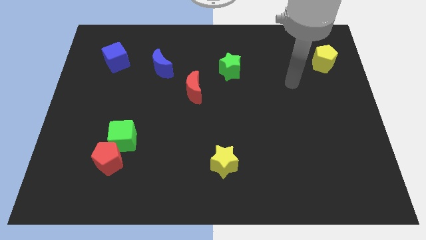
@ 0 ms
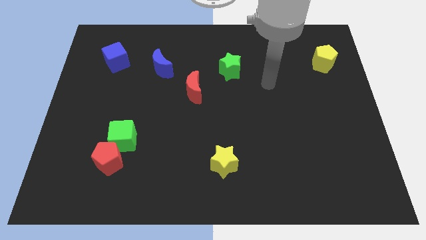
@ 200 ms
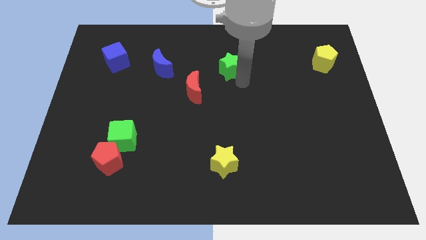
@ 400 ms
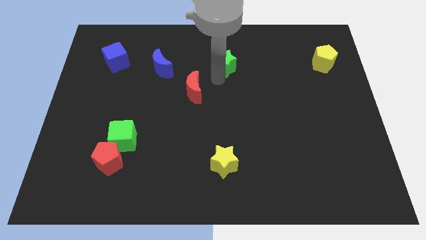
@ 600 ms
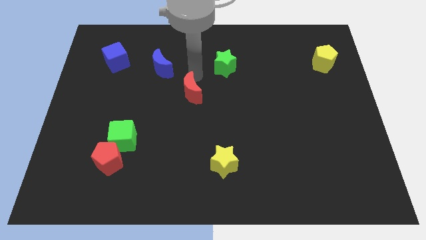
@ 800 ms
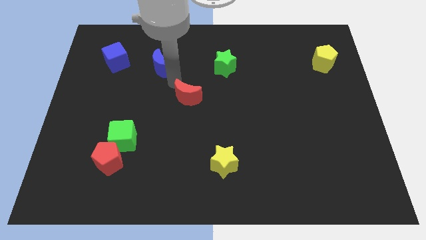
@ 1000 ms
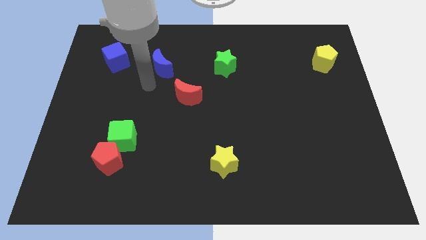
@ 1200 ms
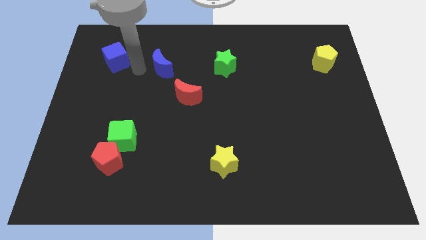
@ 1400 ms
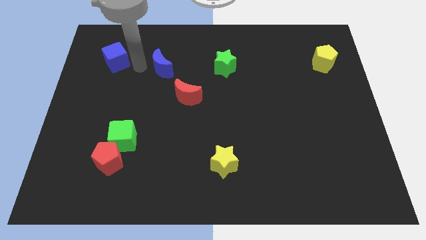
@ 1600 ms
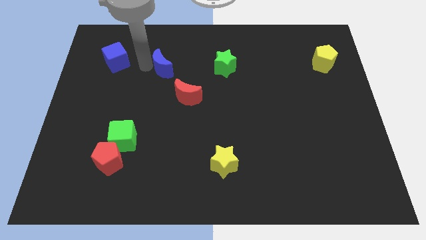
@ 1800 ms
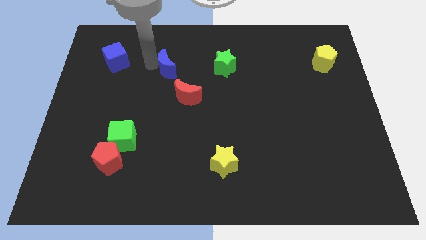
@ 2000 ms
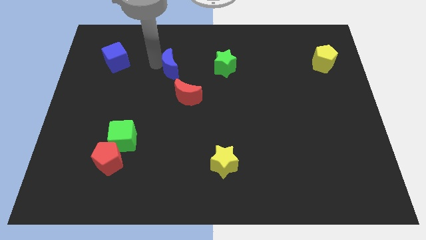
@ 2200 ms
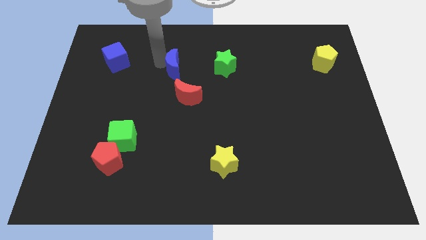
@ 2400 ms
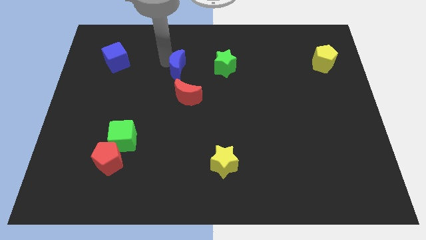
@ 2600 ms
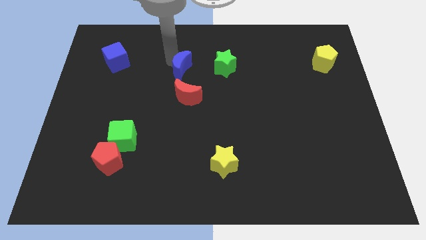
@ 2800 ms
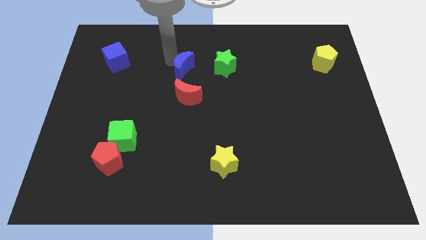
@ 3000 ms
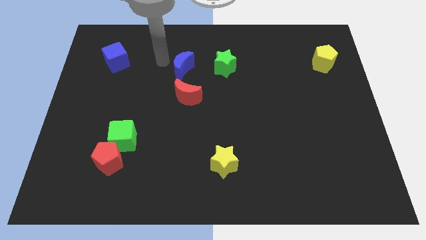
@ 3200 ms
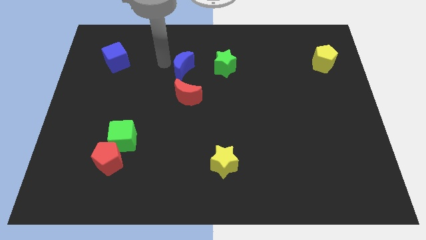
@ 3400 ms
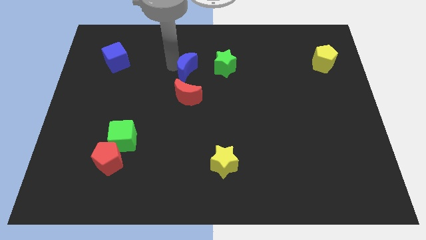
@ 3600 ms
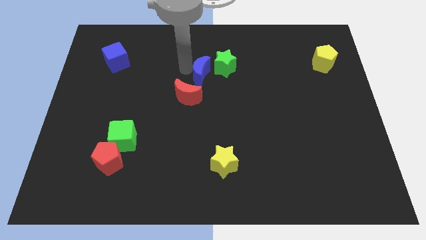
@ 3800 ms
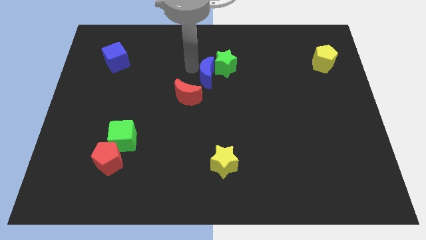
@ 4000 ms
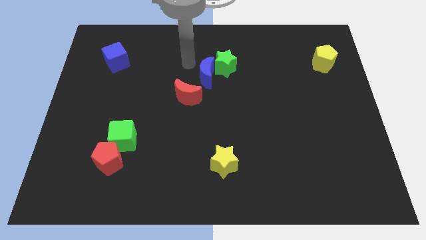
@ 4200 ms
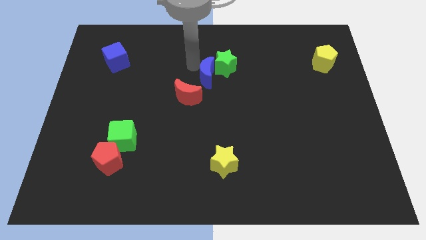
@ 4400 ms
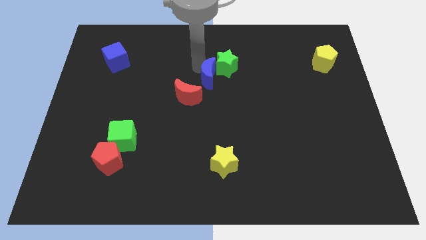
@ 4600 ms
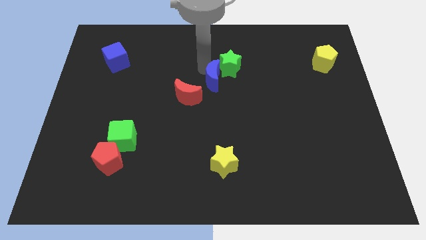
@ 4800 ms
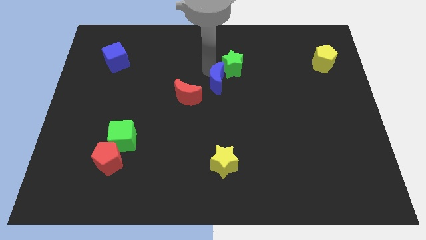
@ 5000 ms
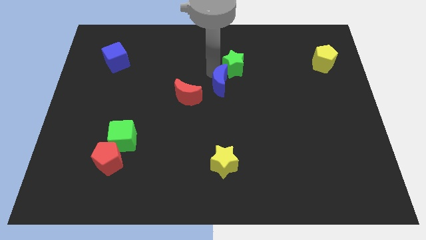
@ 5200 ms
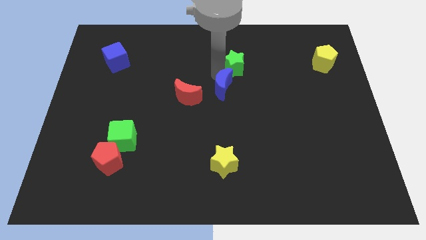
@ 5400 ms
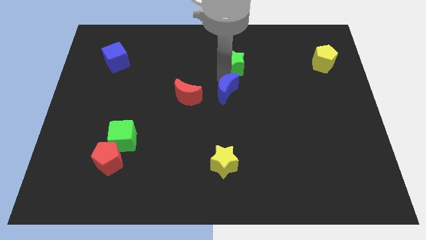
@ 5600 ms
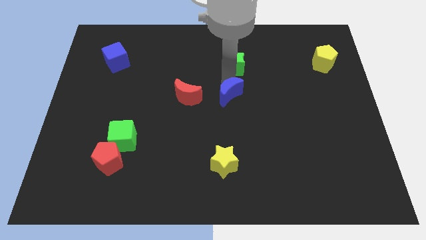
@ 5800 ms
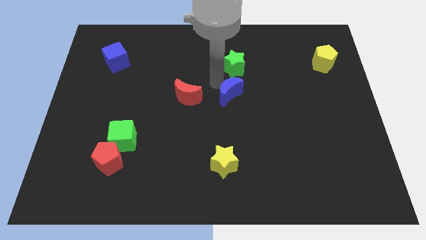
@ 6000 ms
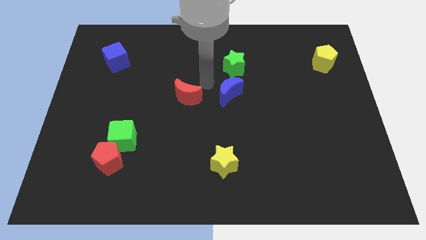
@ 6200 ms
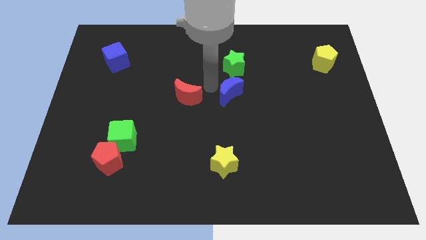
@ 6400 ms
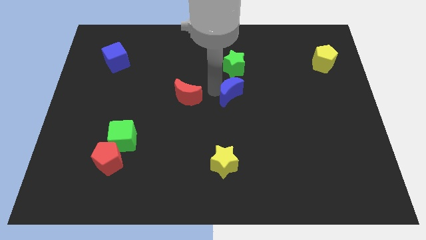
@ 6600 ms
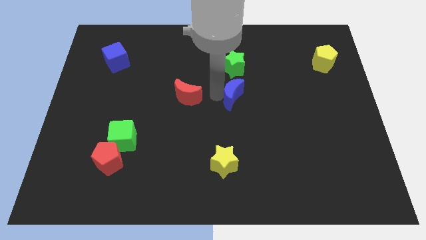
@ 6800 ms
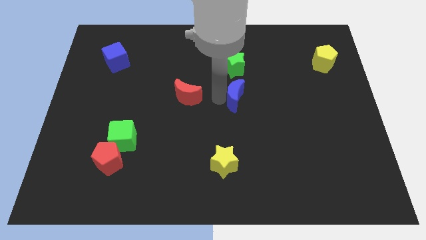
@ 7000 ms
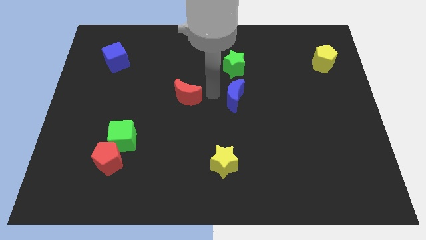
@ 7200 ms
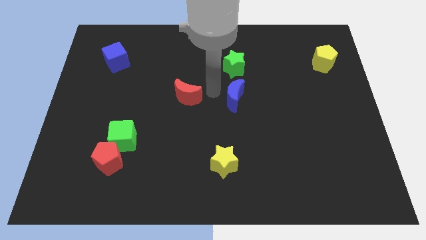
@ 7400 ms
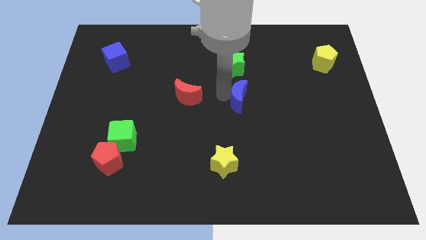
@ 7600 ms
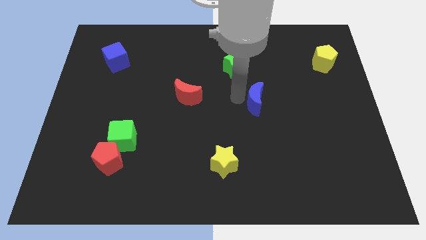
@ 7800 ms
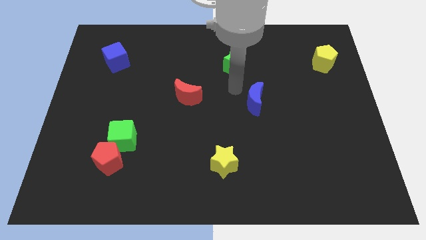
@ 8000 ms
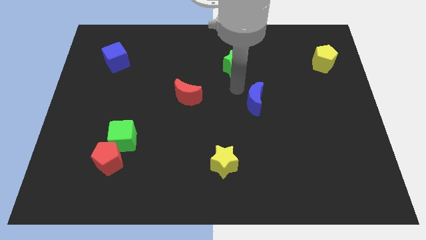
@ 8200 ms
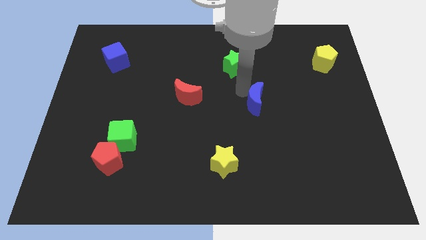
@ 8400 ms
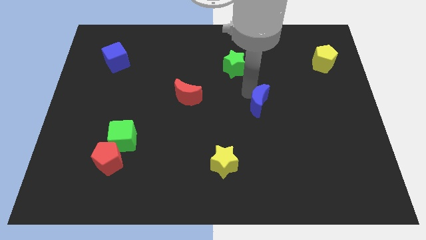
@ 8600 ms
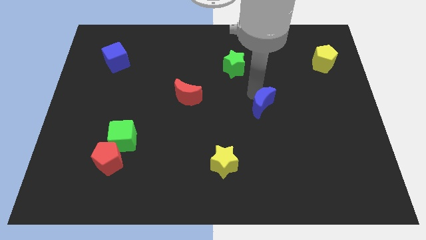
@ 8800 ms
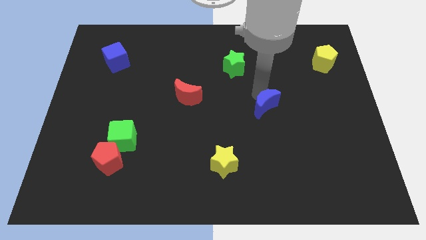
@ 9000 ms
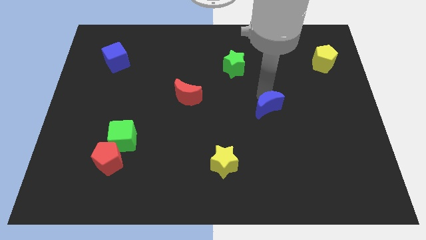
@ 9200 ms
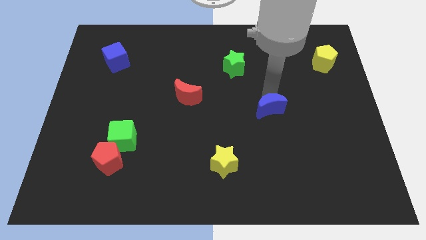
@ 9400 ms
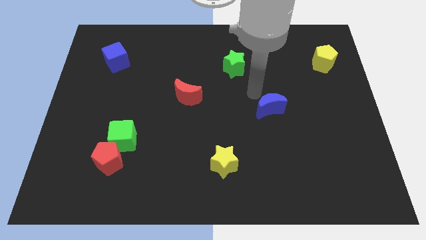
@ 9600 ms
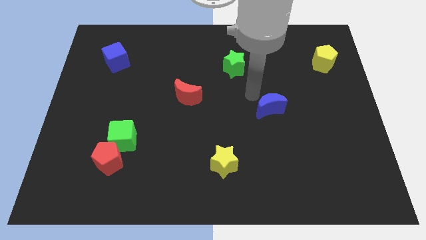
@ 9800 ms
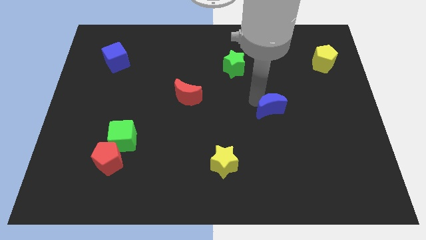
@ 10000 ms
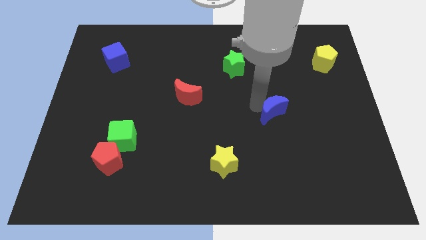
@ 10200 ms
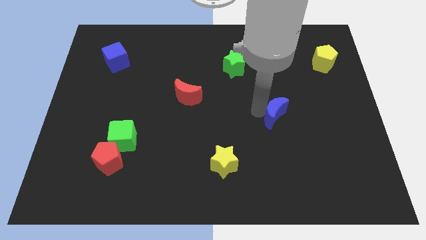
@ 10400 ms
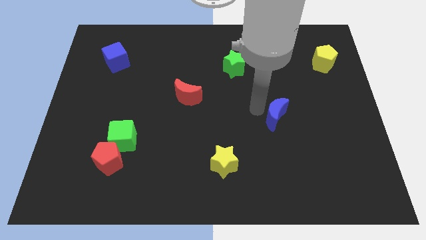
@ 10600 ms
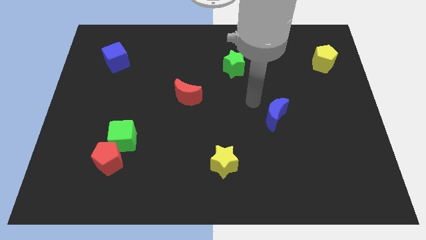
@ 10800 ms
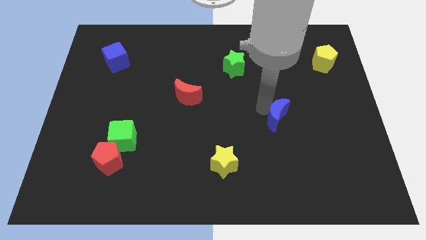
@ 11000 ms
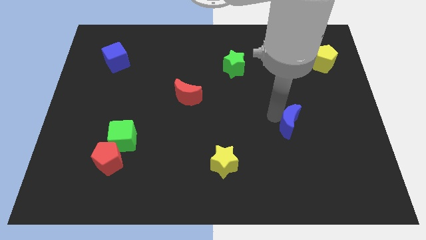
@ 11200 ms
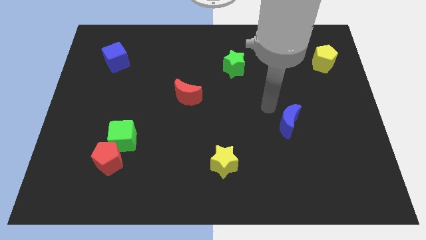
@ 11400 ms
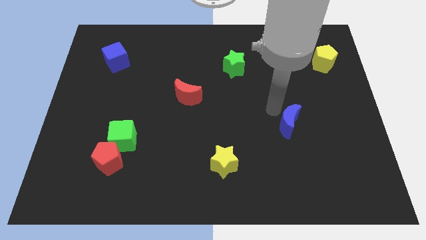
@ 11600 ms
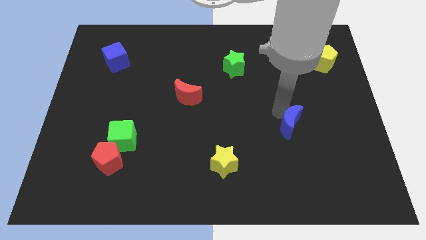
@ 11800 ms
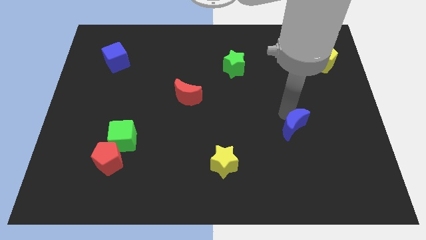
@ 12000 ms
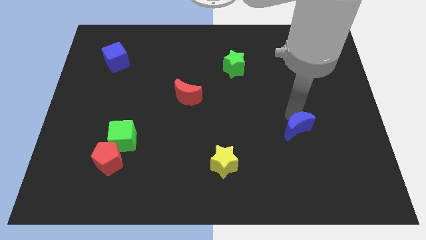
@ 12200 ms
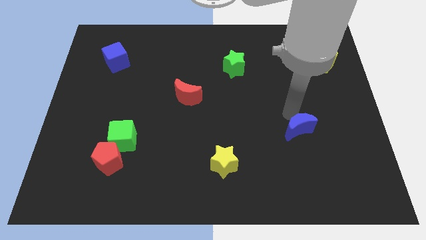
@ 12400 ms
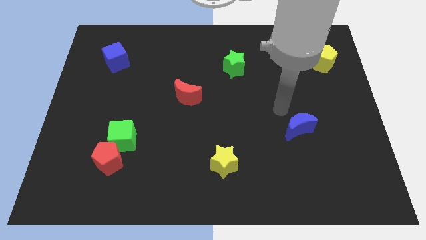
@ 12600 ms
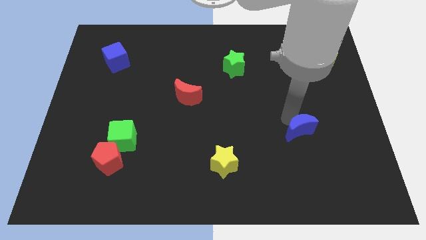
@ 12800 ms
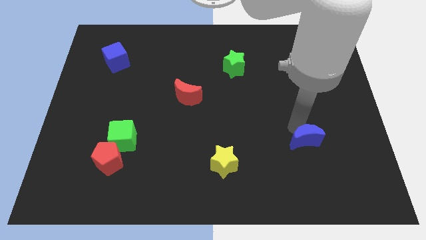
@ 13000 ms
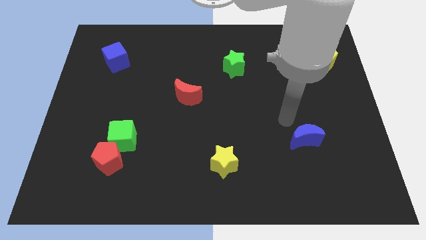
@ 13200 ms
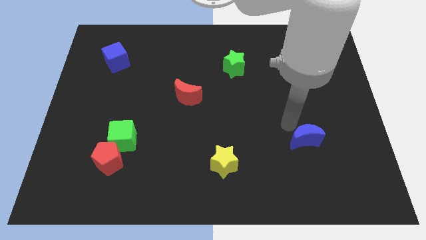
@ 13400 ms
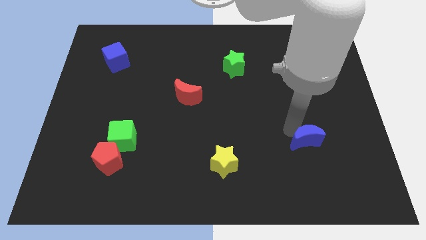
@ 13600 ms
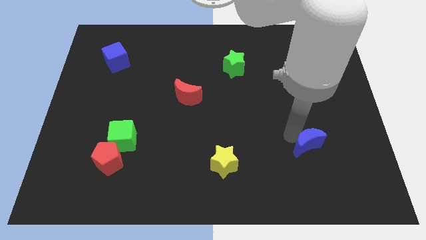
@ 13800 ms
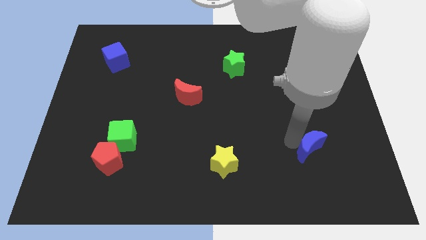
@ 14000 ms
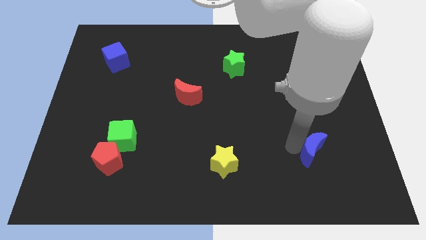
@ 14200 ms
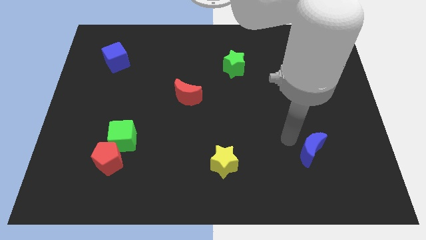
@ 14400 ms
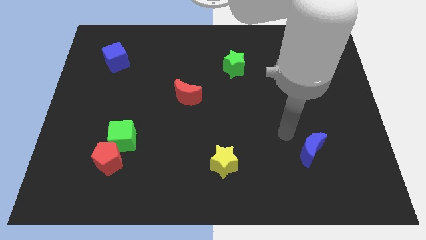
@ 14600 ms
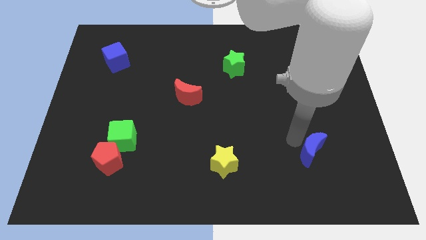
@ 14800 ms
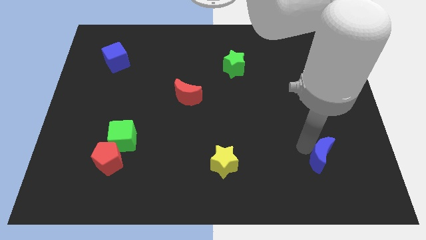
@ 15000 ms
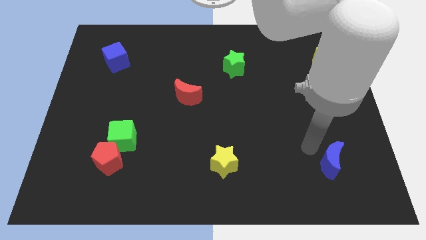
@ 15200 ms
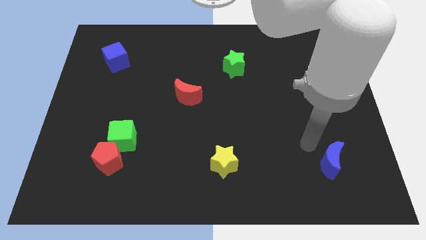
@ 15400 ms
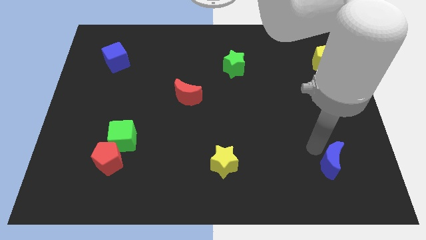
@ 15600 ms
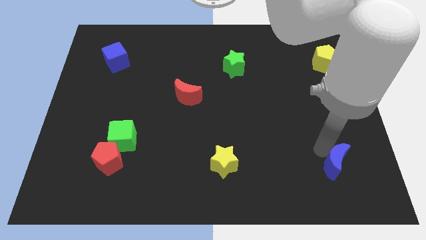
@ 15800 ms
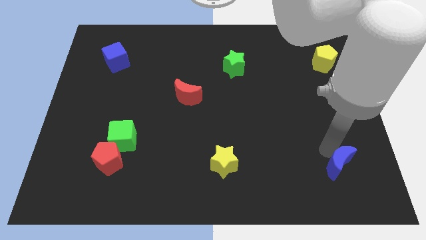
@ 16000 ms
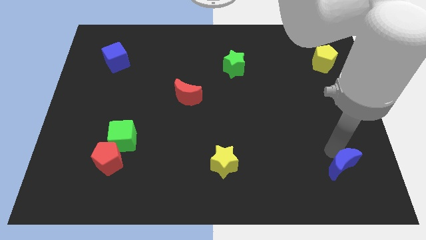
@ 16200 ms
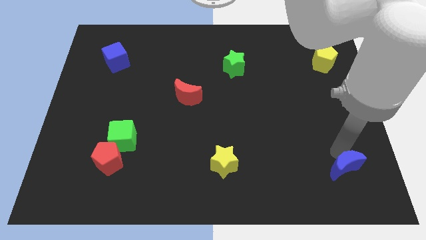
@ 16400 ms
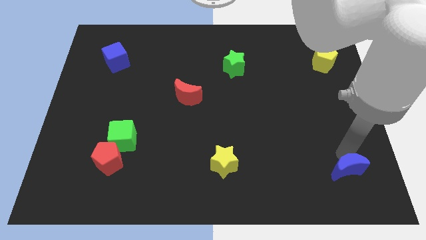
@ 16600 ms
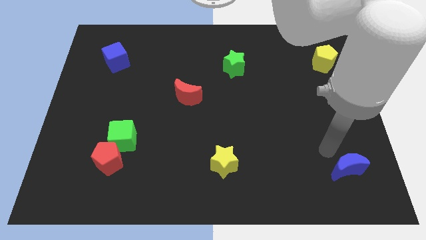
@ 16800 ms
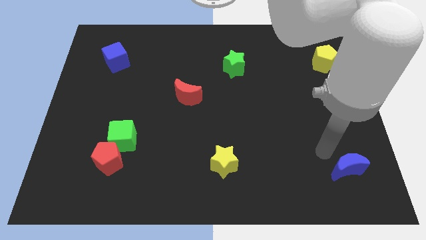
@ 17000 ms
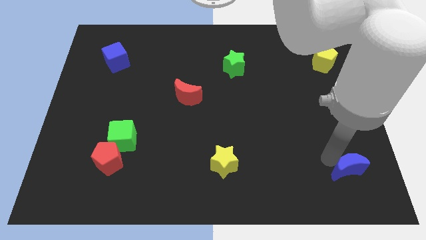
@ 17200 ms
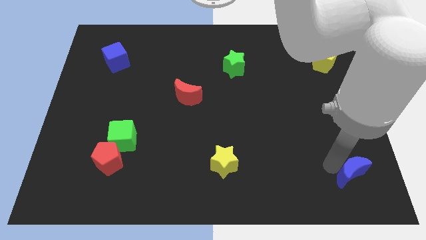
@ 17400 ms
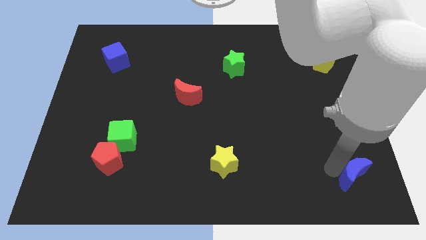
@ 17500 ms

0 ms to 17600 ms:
push the blue moon to the lower right corner
